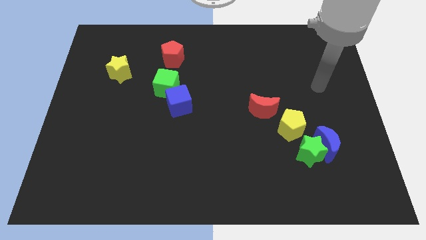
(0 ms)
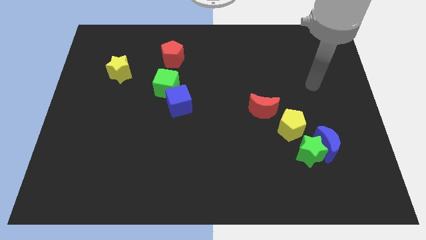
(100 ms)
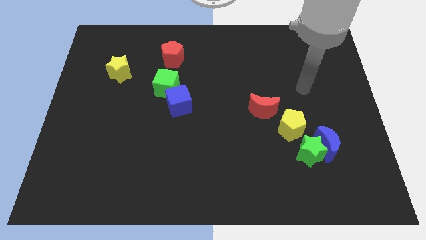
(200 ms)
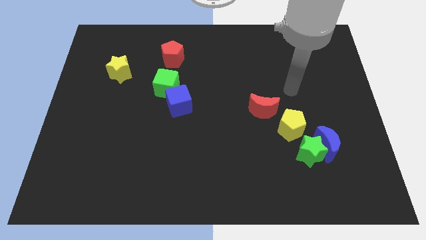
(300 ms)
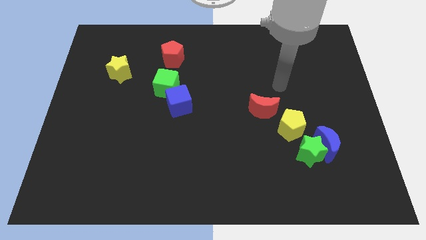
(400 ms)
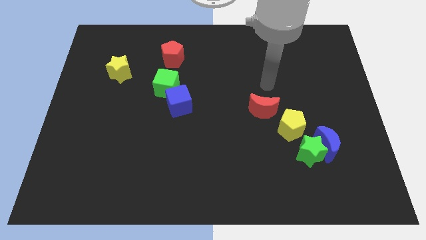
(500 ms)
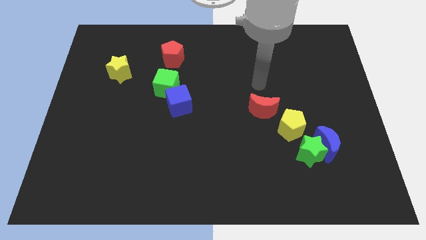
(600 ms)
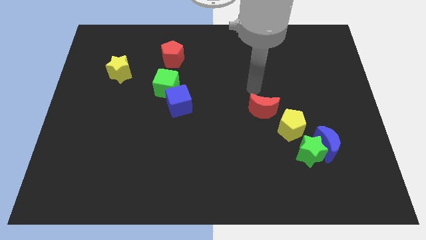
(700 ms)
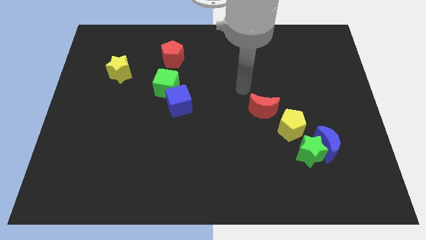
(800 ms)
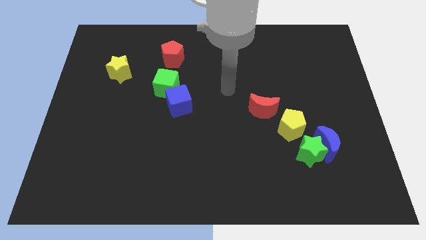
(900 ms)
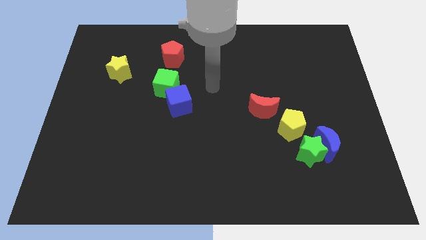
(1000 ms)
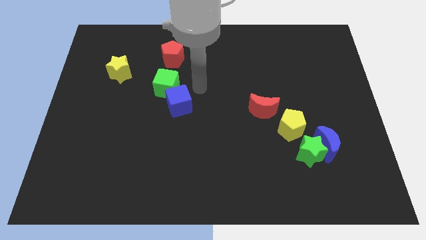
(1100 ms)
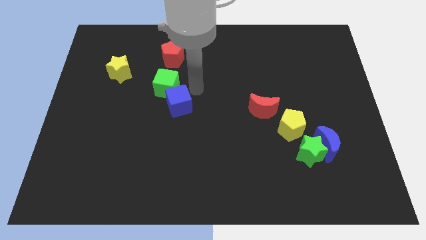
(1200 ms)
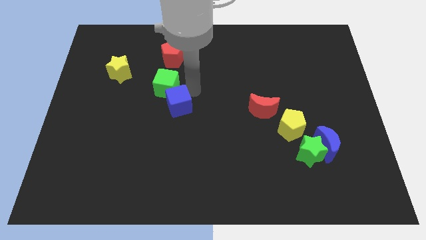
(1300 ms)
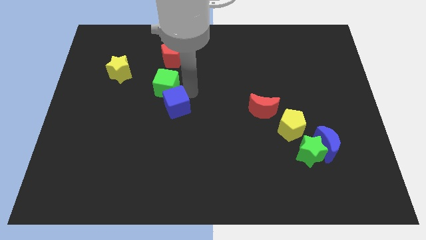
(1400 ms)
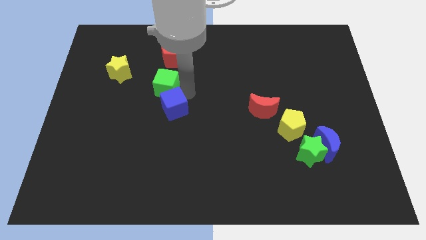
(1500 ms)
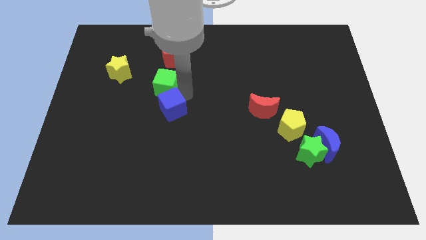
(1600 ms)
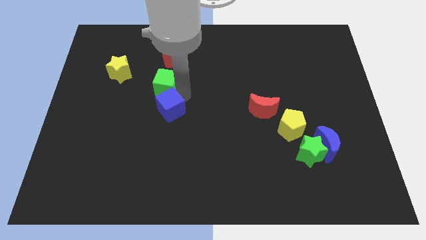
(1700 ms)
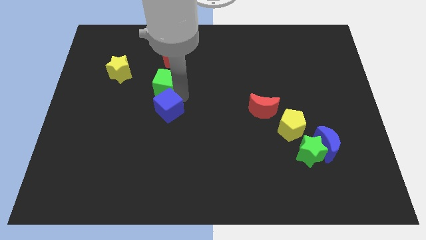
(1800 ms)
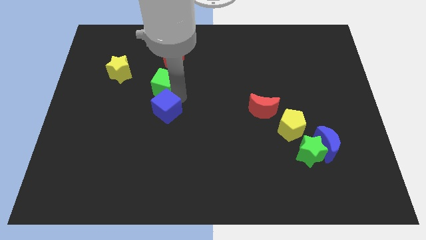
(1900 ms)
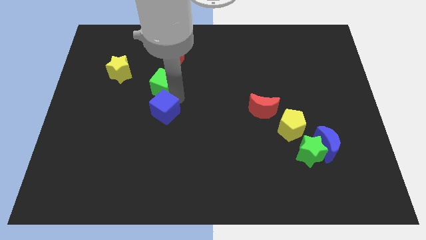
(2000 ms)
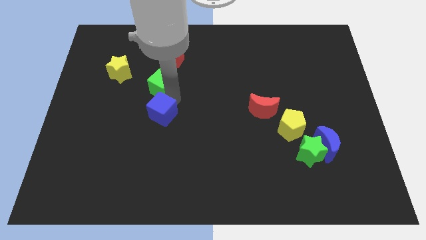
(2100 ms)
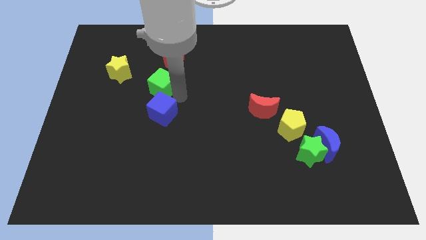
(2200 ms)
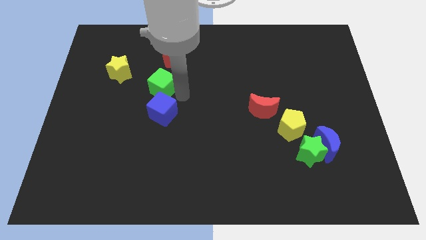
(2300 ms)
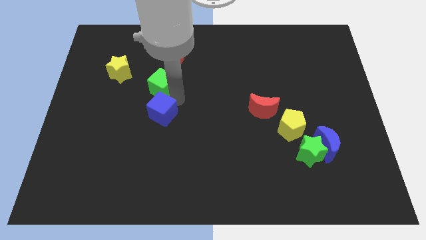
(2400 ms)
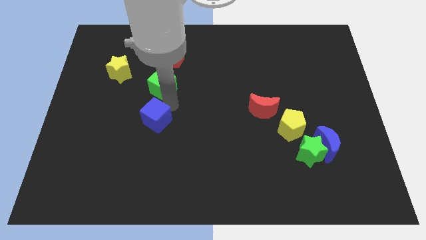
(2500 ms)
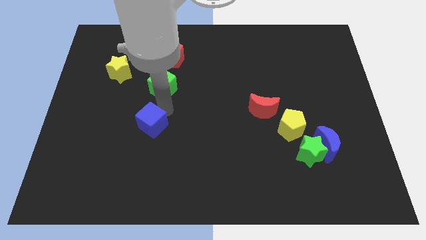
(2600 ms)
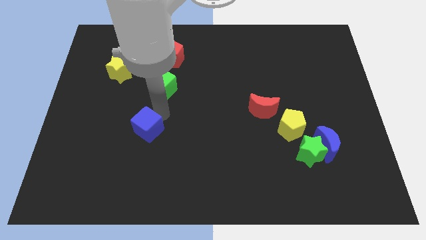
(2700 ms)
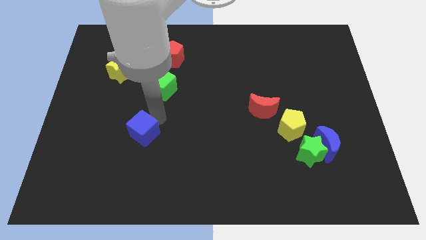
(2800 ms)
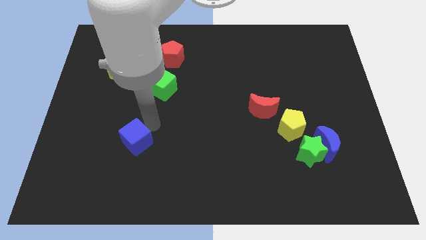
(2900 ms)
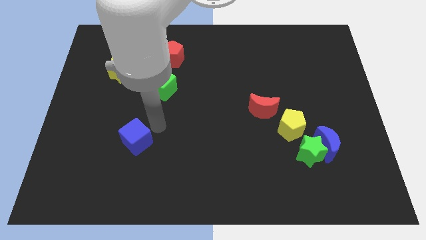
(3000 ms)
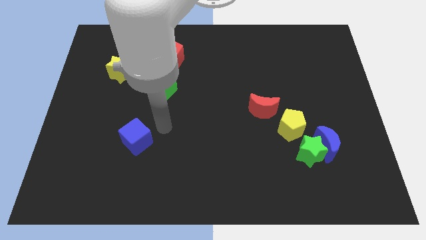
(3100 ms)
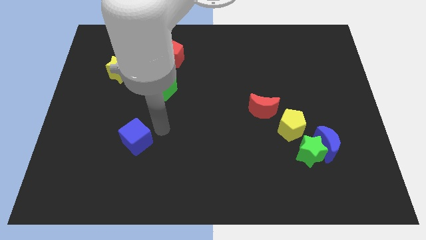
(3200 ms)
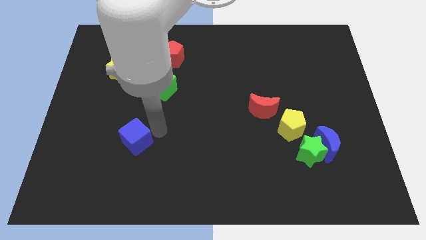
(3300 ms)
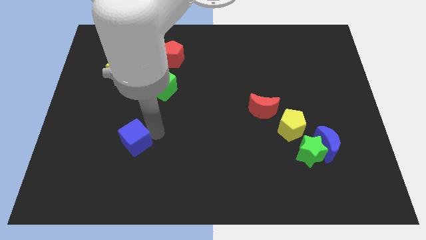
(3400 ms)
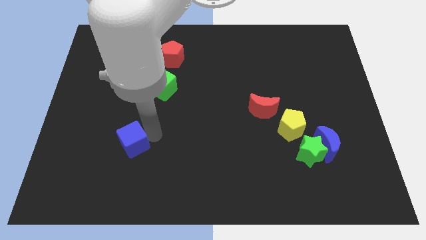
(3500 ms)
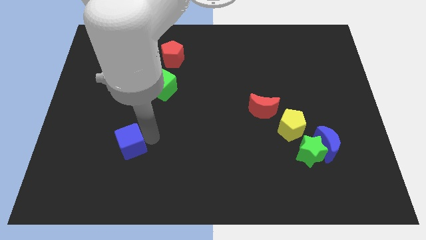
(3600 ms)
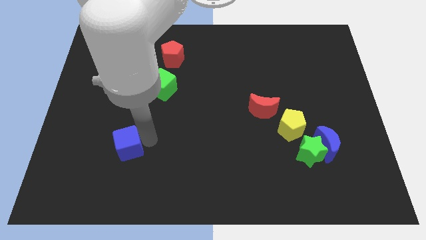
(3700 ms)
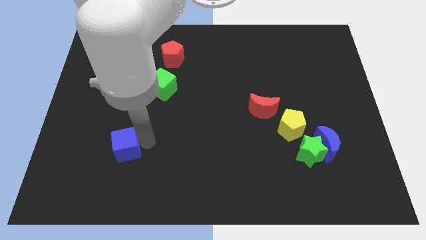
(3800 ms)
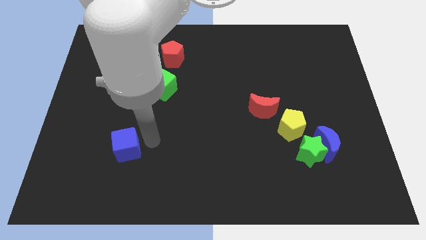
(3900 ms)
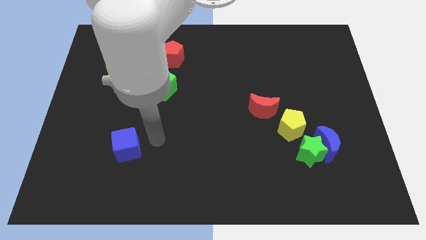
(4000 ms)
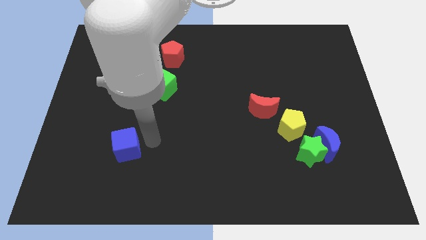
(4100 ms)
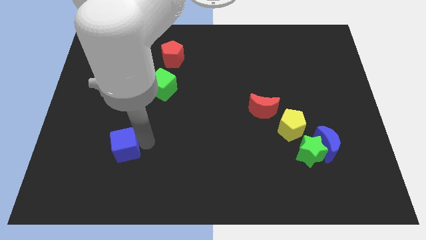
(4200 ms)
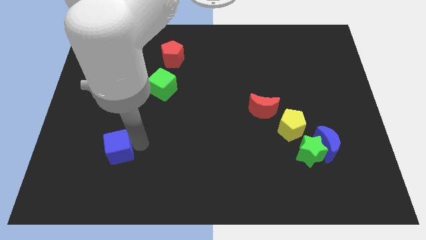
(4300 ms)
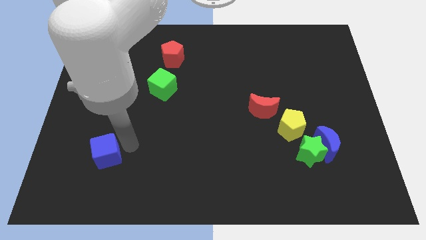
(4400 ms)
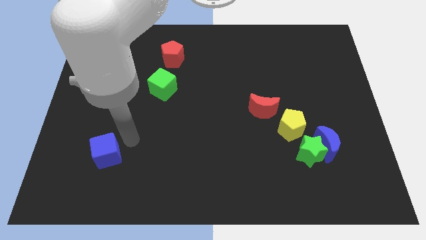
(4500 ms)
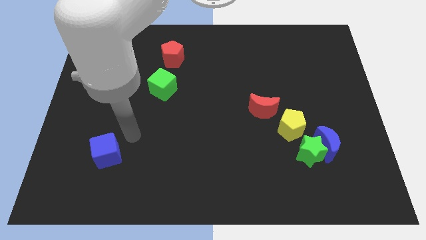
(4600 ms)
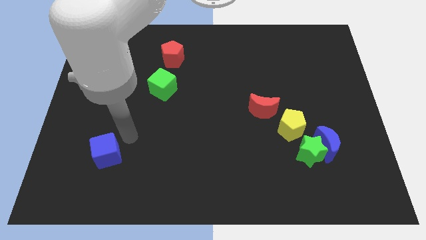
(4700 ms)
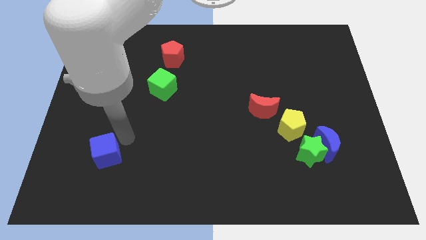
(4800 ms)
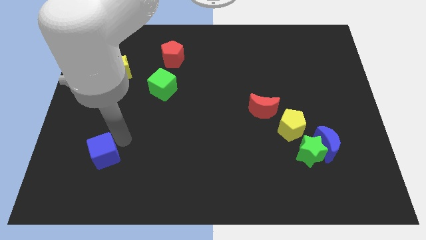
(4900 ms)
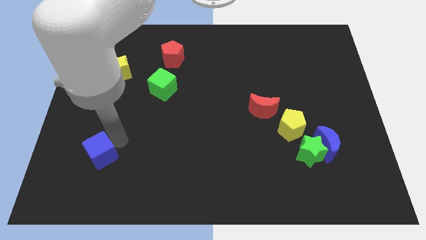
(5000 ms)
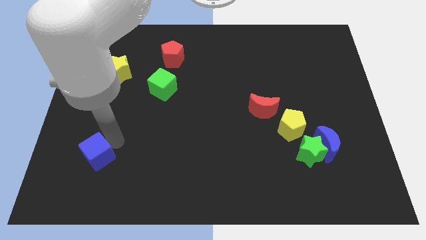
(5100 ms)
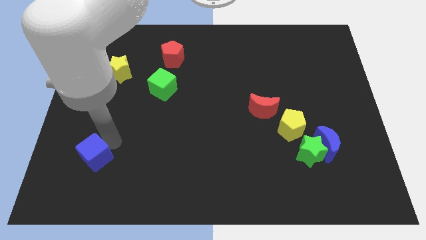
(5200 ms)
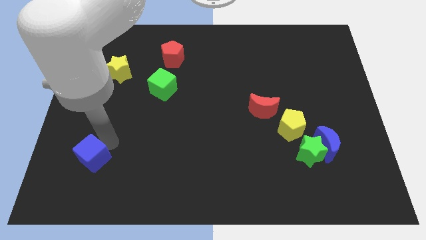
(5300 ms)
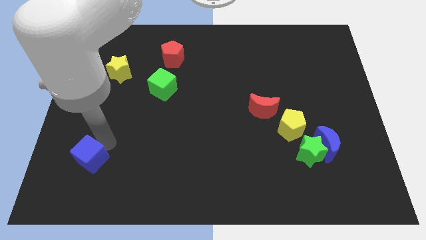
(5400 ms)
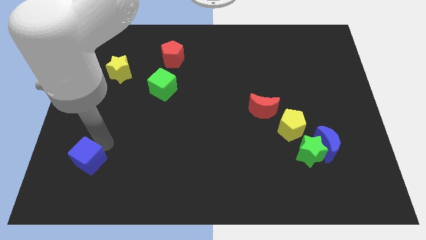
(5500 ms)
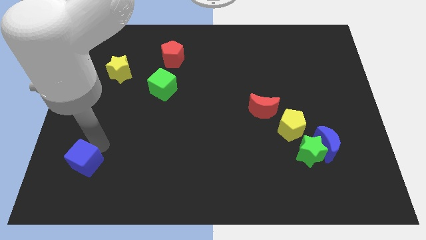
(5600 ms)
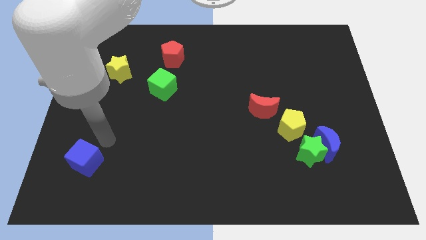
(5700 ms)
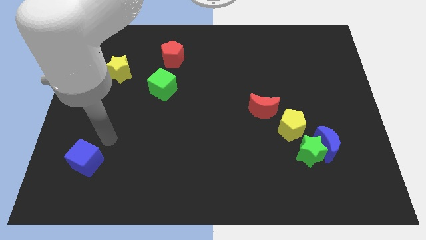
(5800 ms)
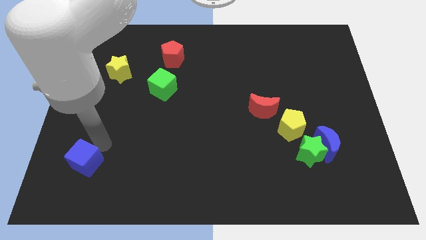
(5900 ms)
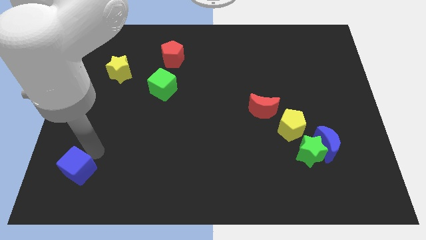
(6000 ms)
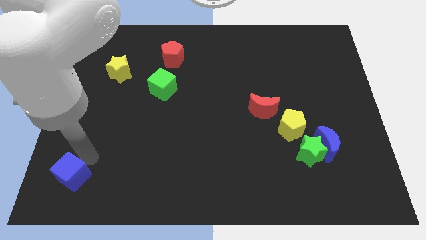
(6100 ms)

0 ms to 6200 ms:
push the blue cube to the bottom left

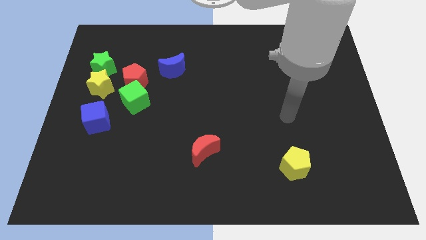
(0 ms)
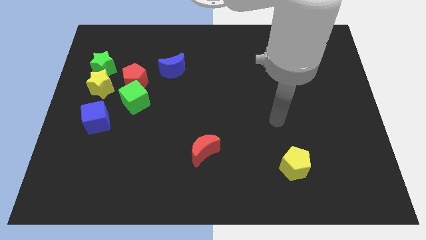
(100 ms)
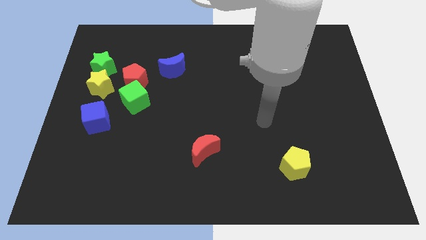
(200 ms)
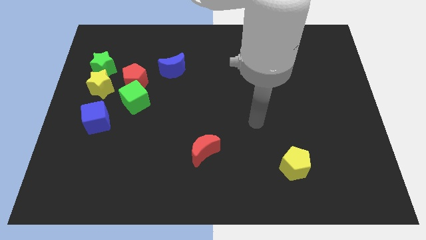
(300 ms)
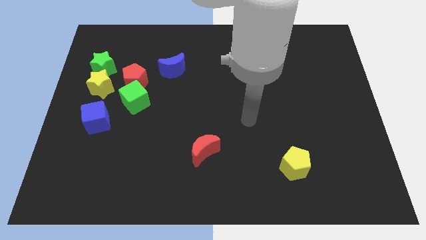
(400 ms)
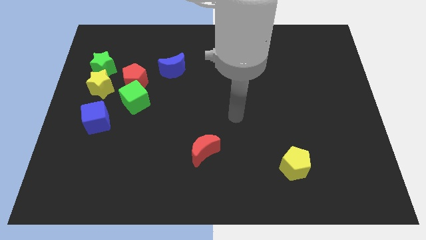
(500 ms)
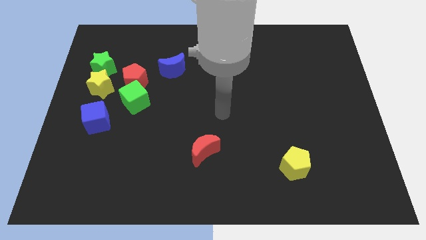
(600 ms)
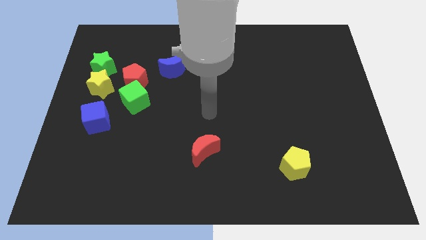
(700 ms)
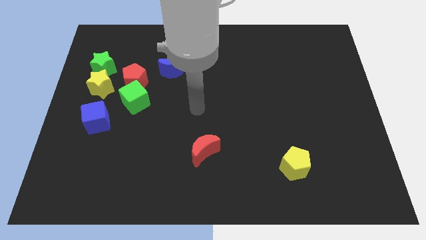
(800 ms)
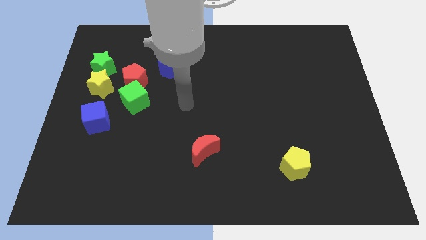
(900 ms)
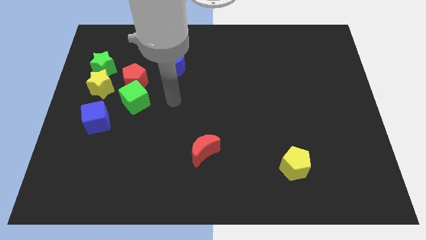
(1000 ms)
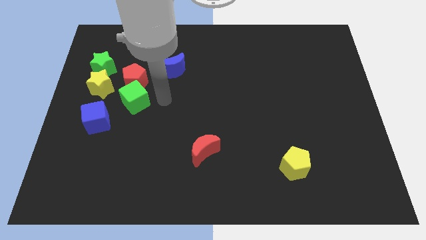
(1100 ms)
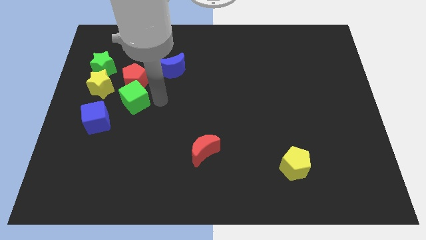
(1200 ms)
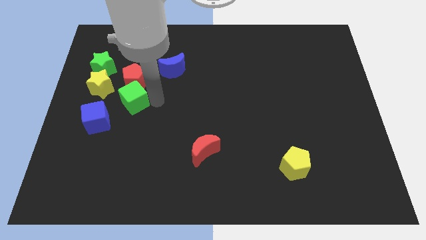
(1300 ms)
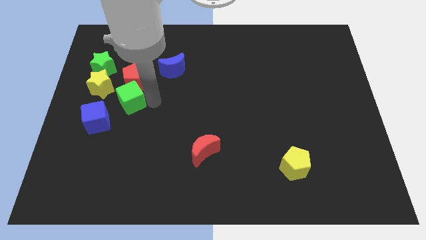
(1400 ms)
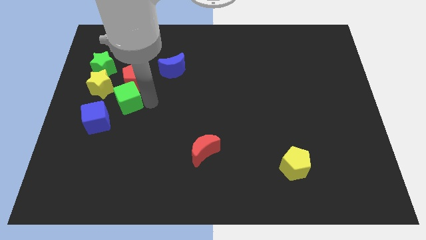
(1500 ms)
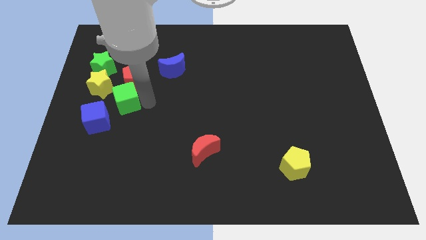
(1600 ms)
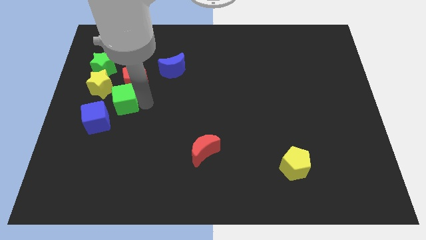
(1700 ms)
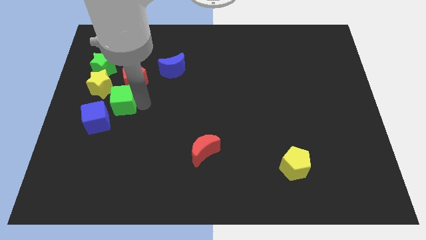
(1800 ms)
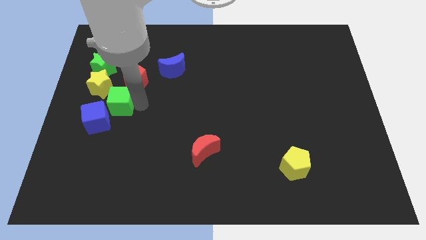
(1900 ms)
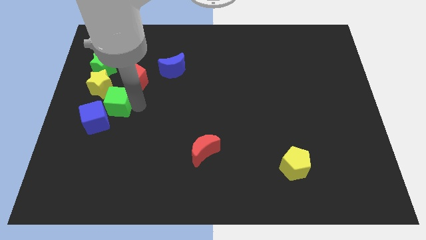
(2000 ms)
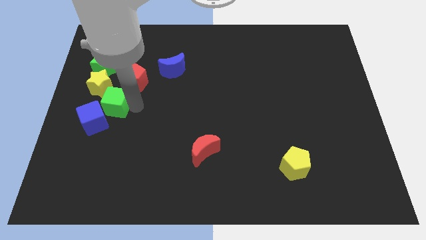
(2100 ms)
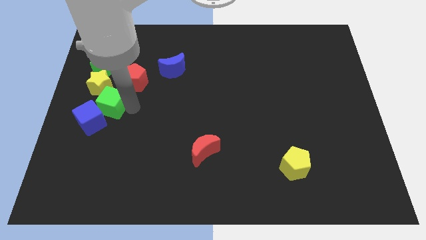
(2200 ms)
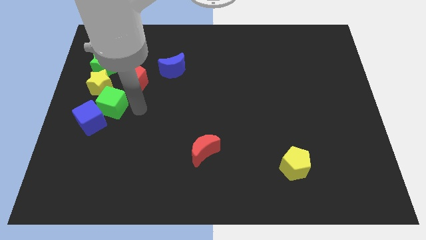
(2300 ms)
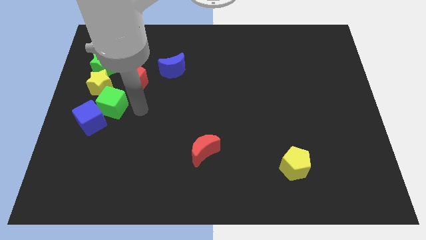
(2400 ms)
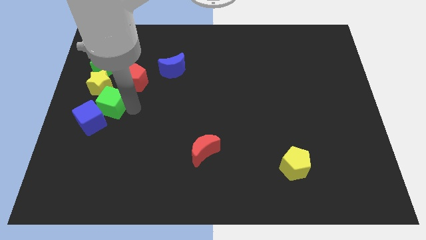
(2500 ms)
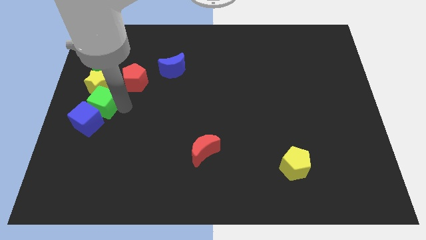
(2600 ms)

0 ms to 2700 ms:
slide the green cube to the center left
